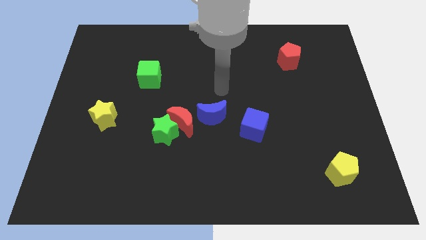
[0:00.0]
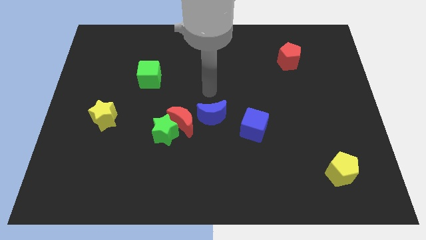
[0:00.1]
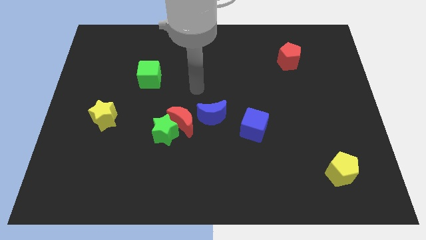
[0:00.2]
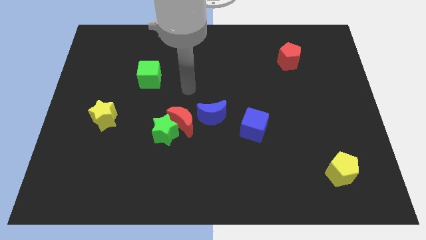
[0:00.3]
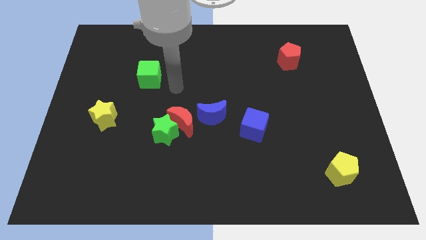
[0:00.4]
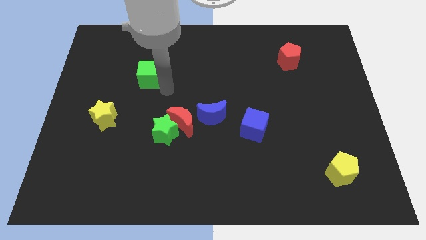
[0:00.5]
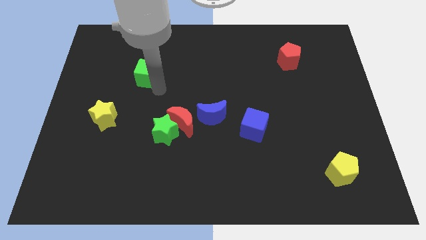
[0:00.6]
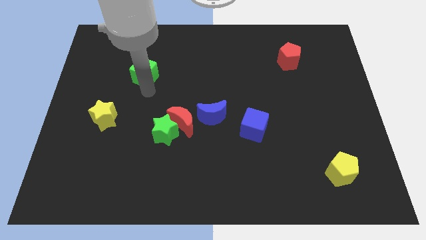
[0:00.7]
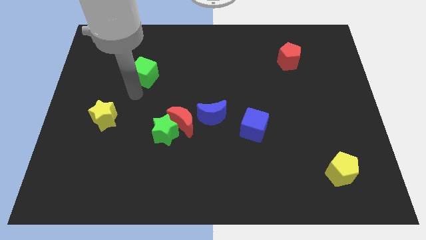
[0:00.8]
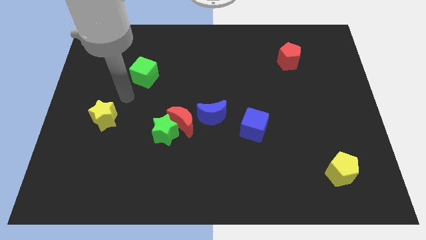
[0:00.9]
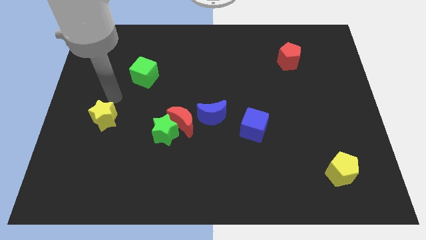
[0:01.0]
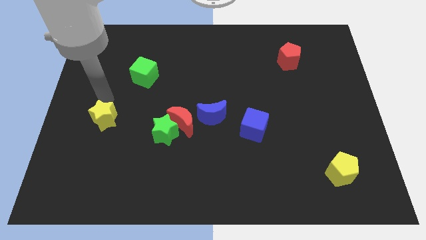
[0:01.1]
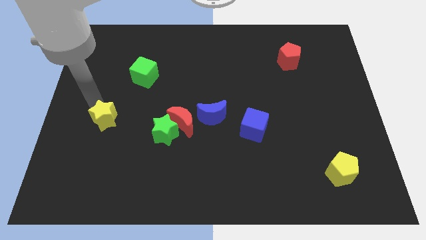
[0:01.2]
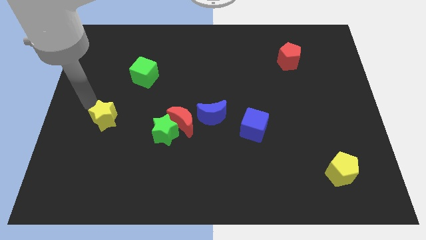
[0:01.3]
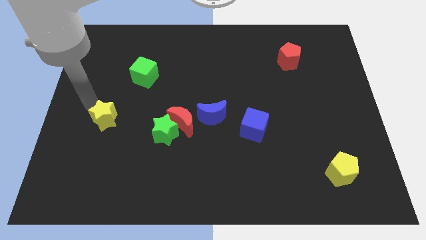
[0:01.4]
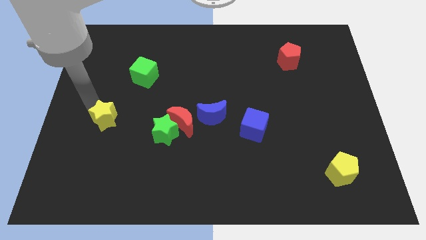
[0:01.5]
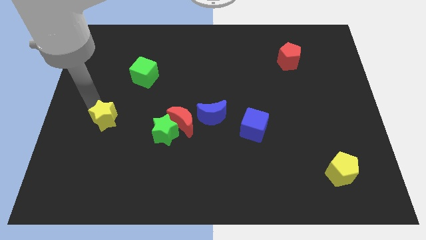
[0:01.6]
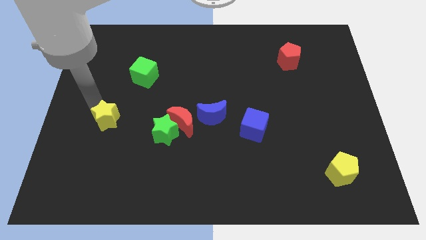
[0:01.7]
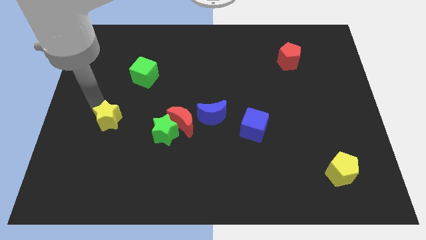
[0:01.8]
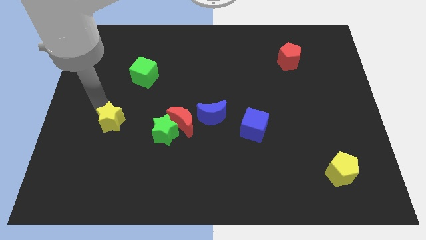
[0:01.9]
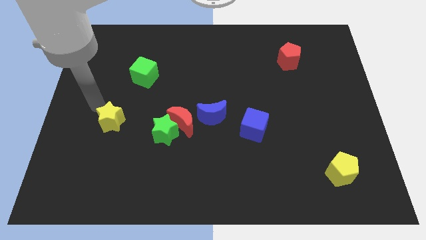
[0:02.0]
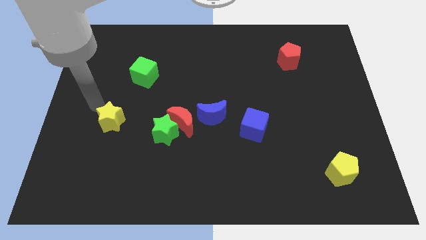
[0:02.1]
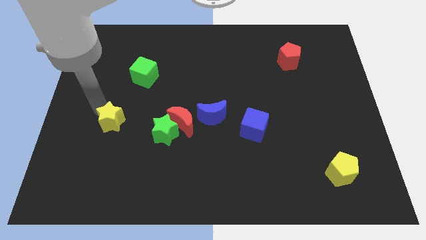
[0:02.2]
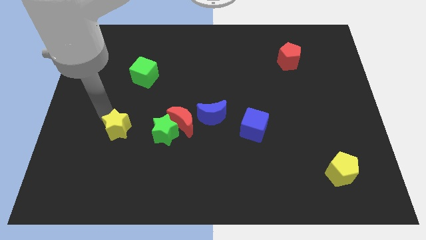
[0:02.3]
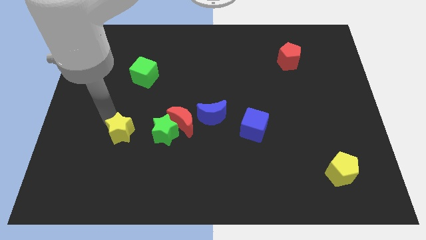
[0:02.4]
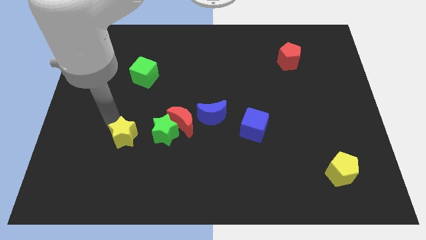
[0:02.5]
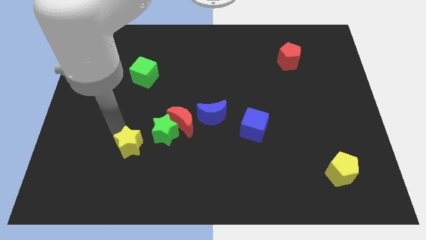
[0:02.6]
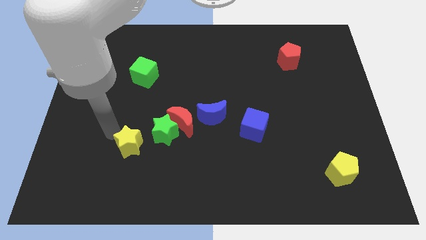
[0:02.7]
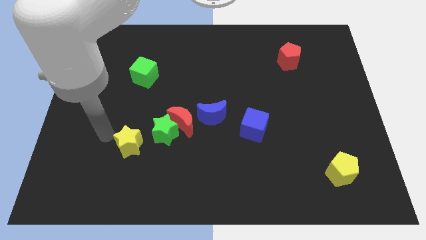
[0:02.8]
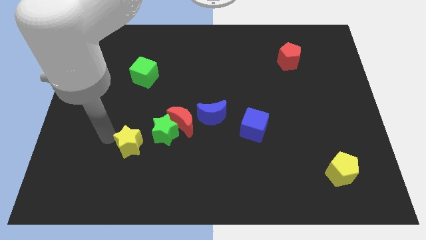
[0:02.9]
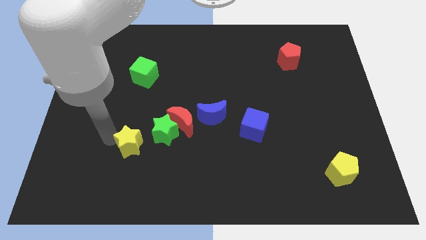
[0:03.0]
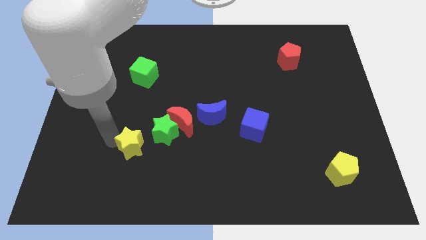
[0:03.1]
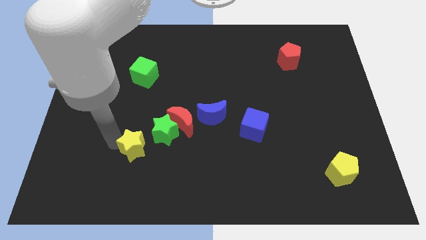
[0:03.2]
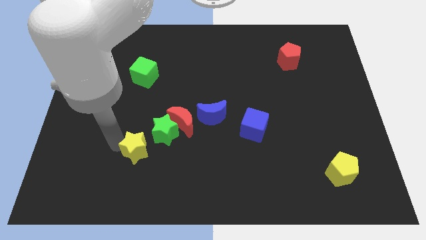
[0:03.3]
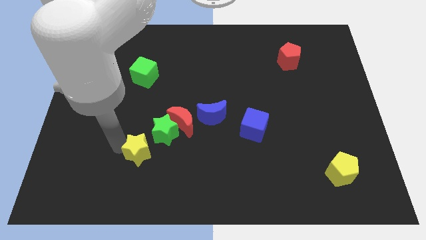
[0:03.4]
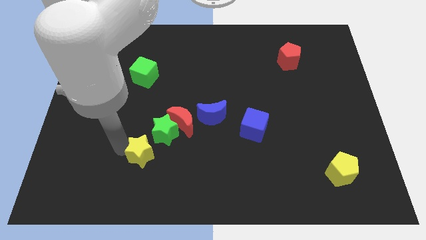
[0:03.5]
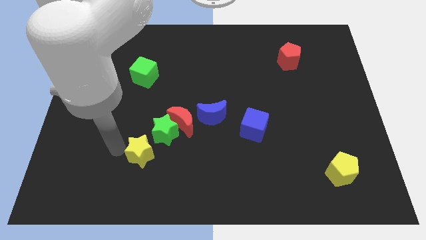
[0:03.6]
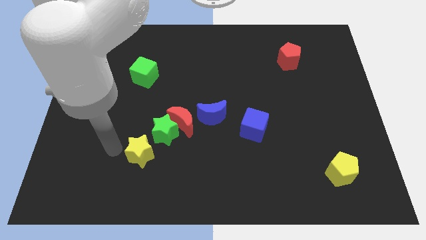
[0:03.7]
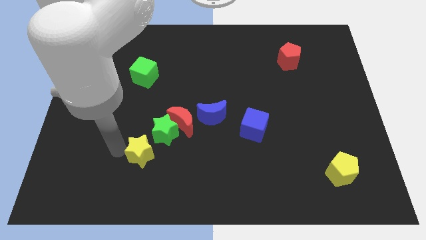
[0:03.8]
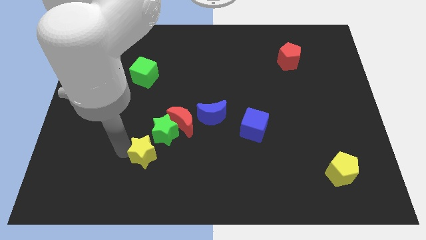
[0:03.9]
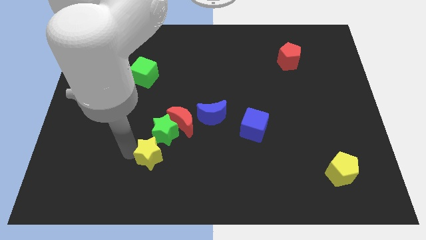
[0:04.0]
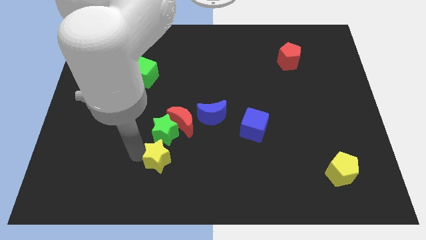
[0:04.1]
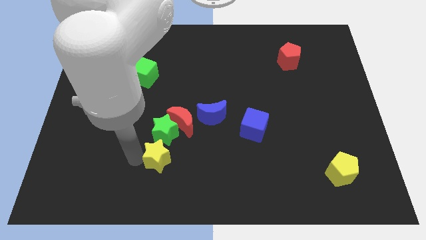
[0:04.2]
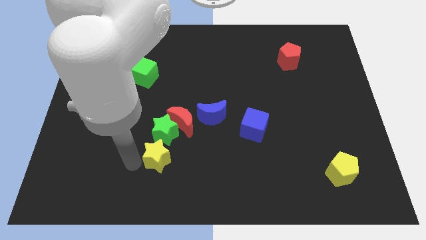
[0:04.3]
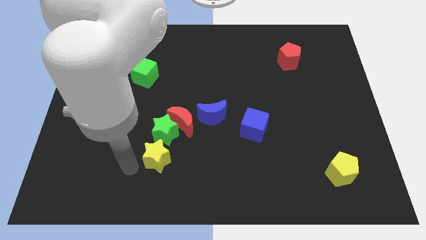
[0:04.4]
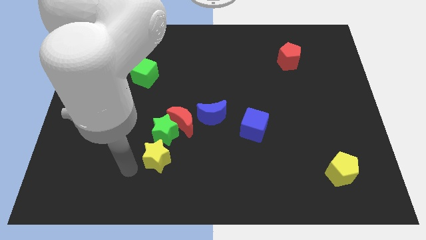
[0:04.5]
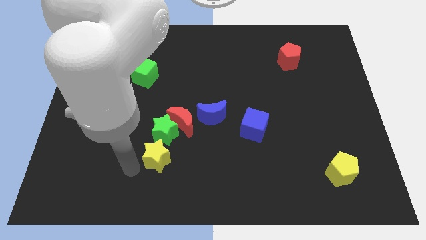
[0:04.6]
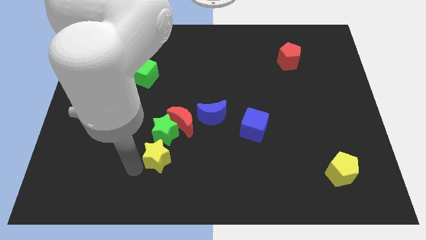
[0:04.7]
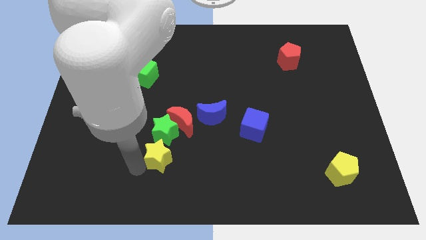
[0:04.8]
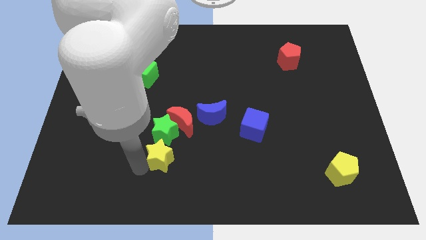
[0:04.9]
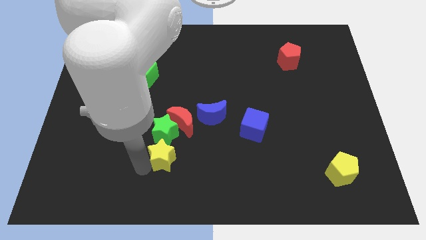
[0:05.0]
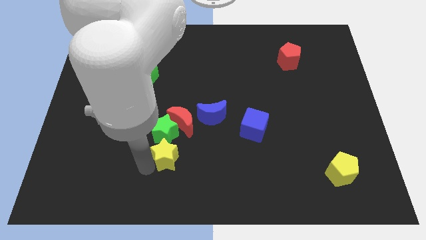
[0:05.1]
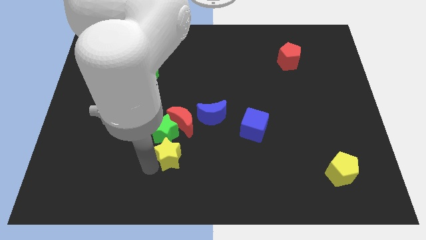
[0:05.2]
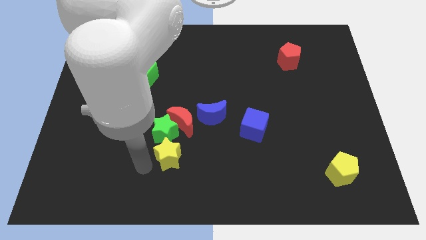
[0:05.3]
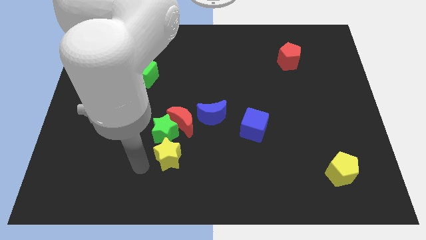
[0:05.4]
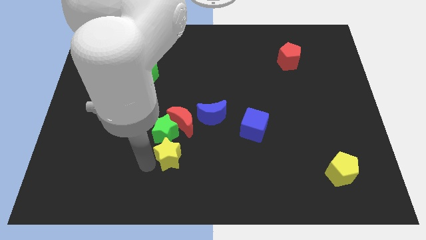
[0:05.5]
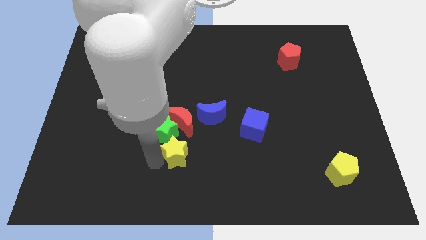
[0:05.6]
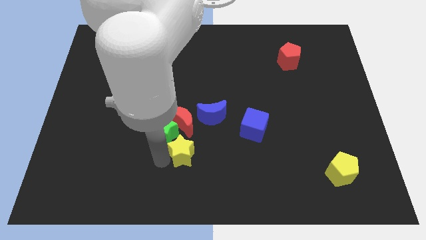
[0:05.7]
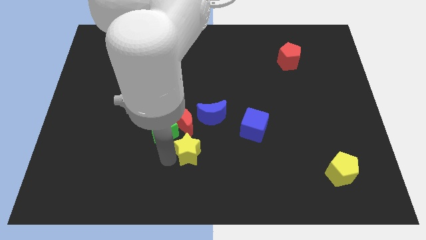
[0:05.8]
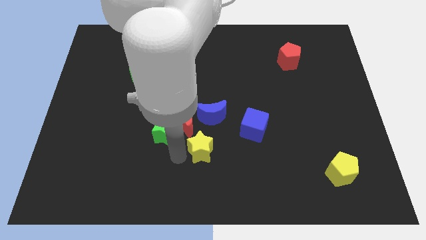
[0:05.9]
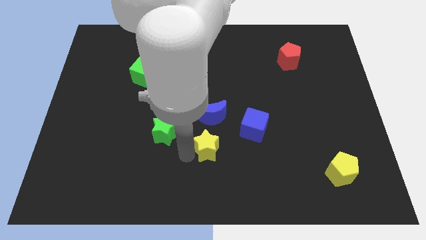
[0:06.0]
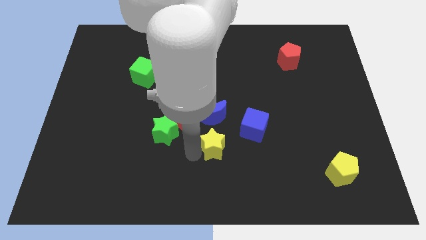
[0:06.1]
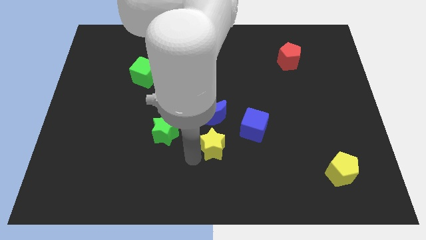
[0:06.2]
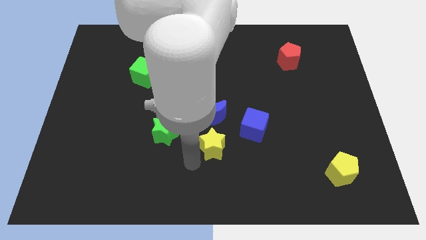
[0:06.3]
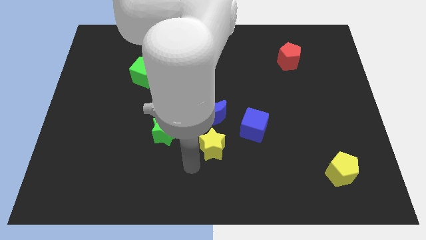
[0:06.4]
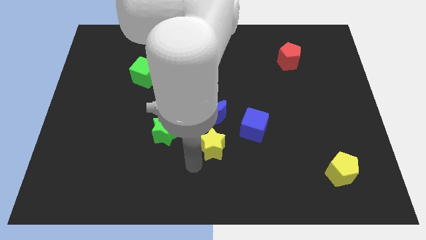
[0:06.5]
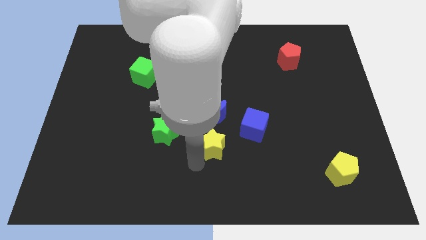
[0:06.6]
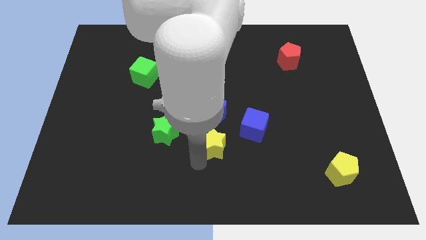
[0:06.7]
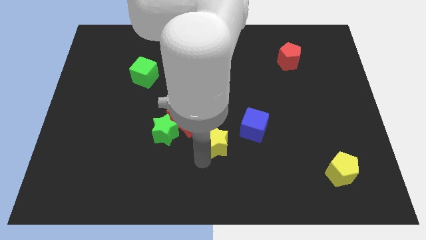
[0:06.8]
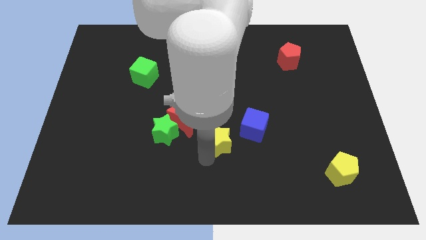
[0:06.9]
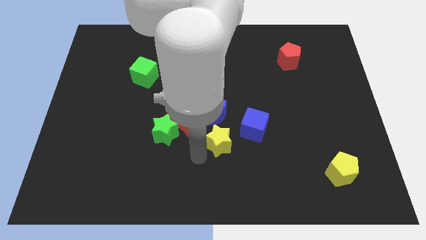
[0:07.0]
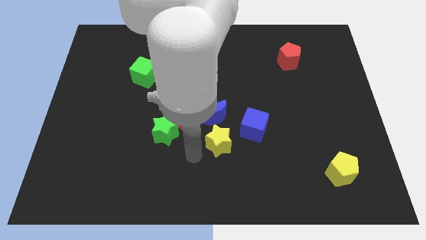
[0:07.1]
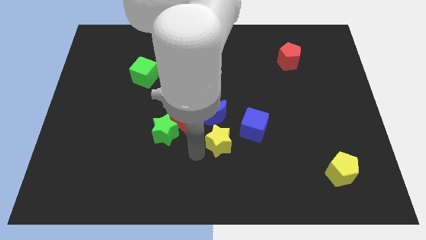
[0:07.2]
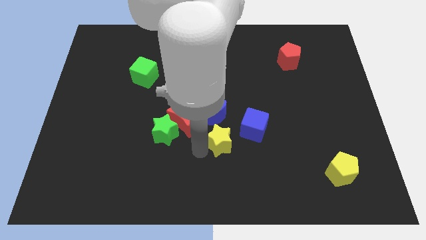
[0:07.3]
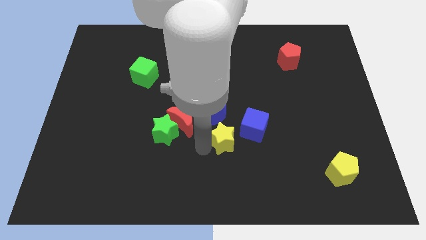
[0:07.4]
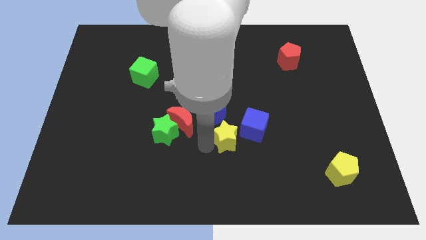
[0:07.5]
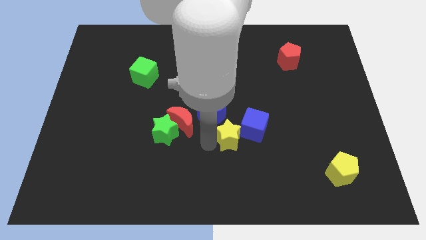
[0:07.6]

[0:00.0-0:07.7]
slide the yellow star towards the blue cube
